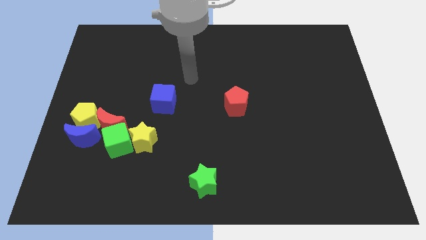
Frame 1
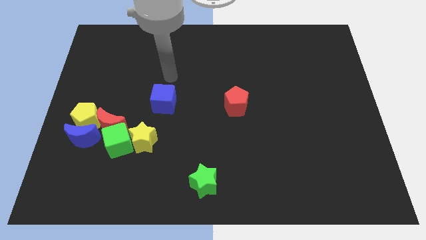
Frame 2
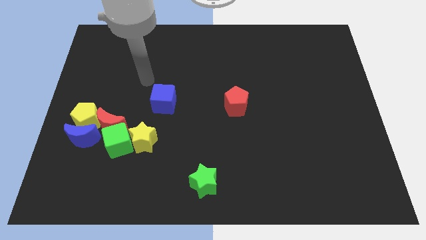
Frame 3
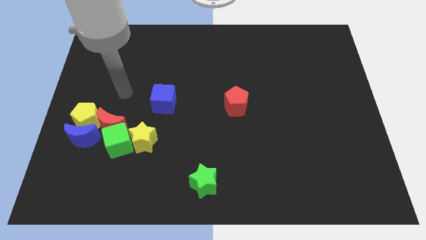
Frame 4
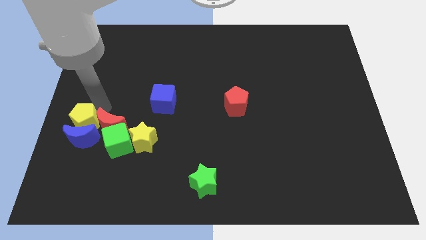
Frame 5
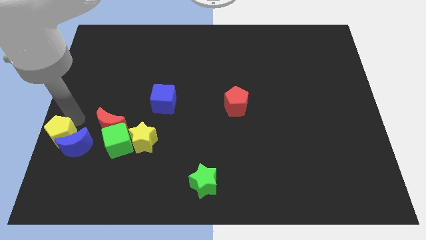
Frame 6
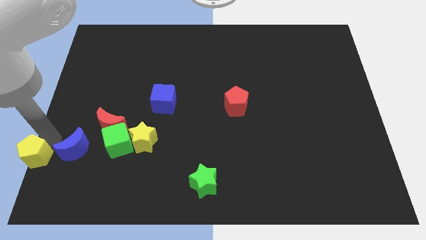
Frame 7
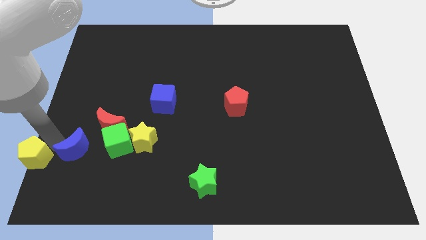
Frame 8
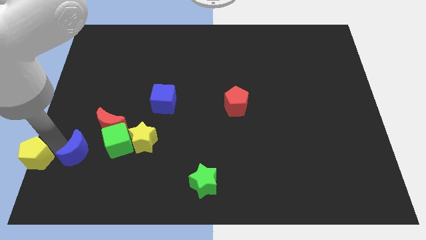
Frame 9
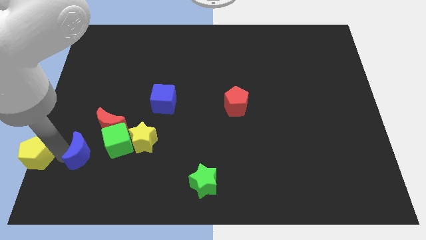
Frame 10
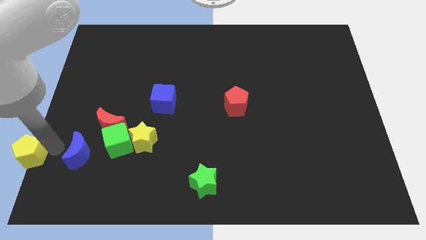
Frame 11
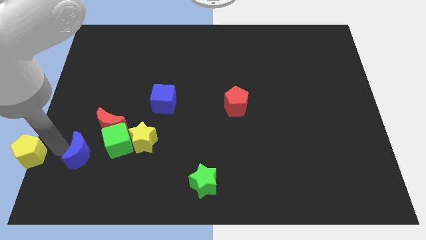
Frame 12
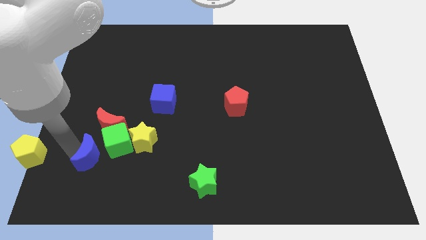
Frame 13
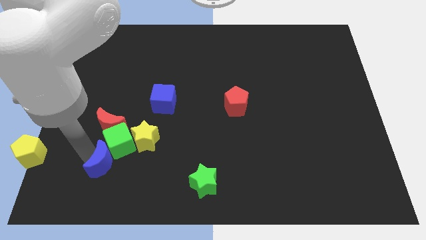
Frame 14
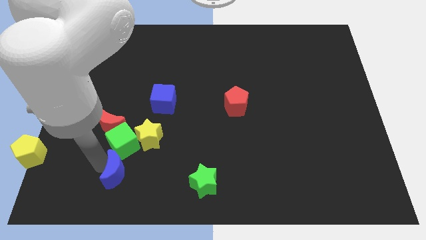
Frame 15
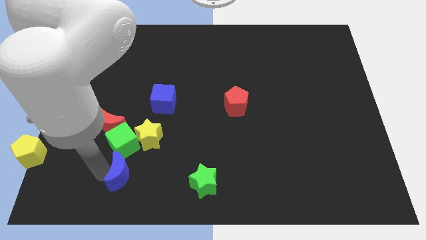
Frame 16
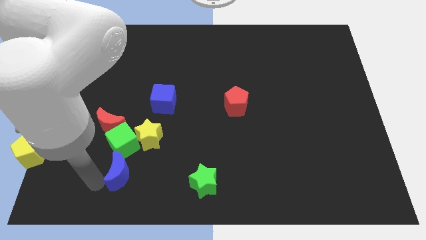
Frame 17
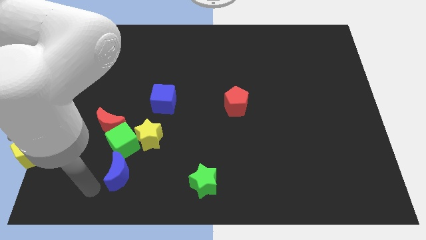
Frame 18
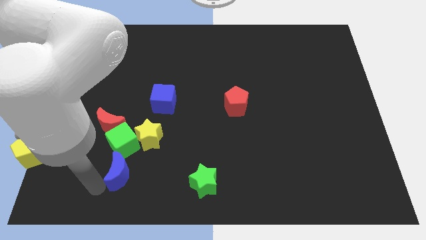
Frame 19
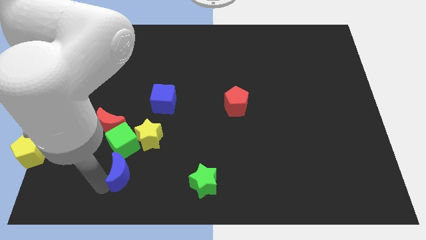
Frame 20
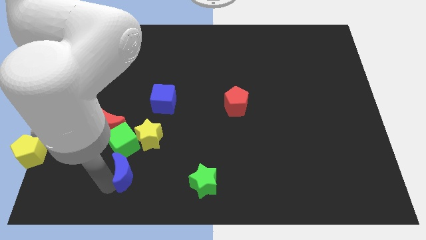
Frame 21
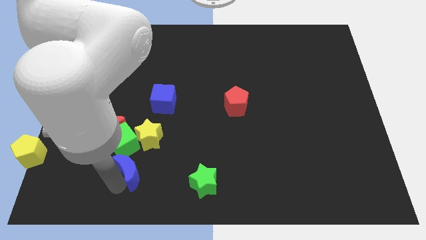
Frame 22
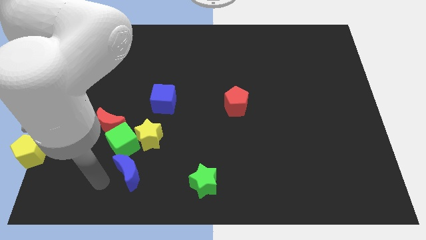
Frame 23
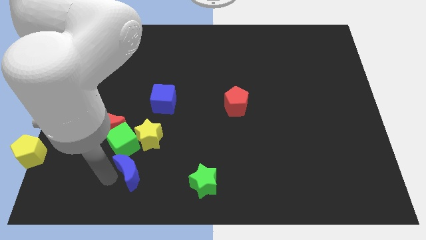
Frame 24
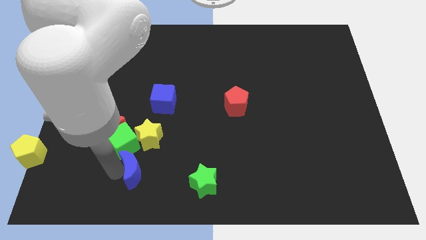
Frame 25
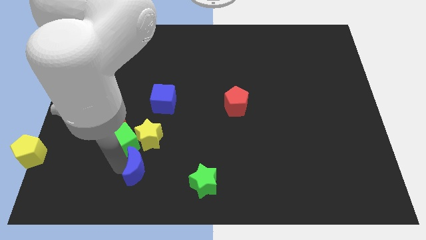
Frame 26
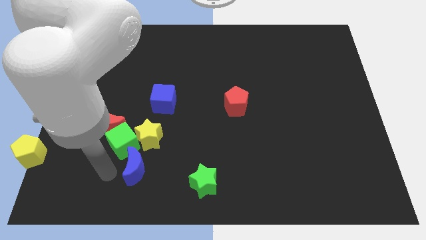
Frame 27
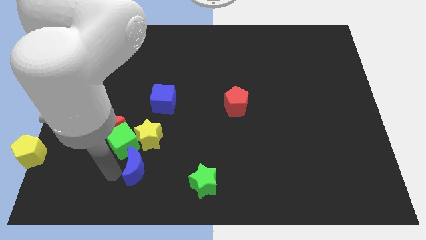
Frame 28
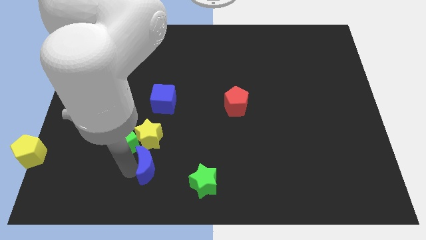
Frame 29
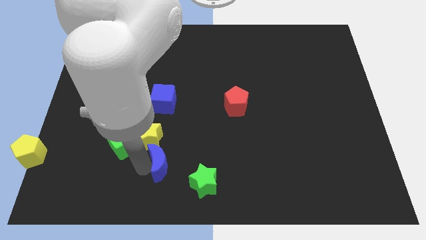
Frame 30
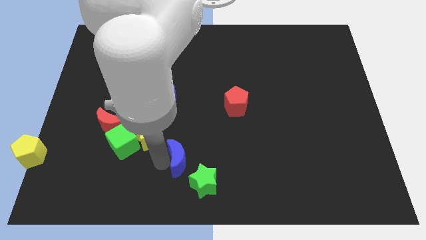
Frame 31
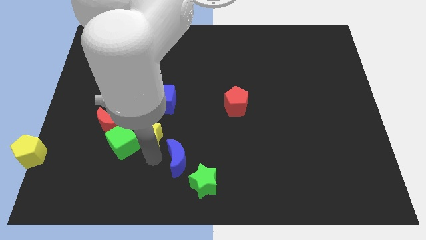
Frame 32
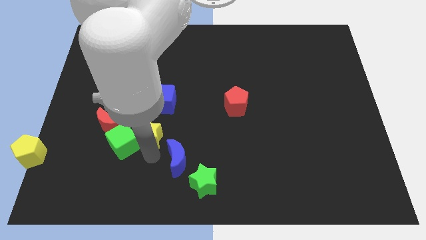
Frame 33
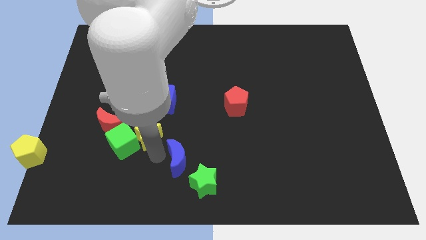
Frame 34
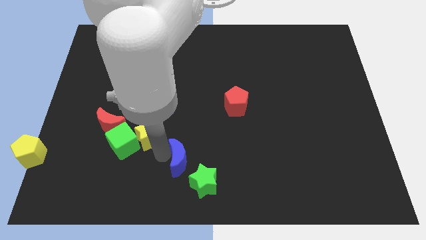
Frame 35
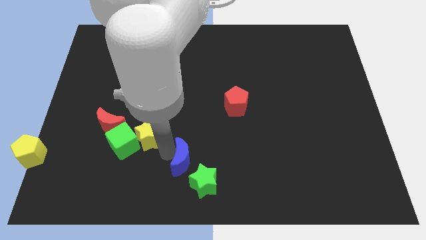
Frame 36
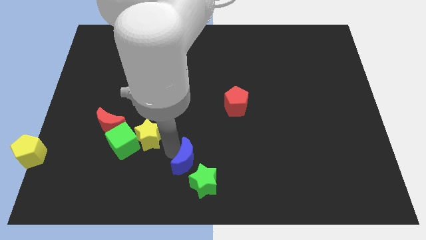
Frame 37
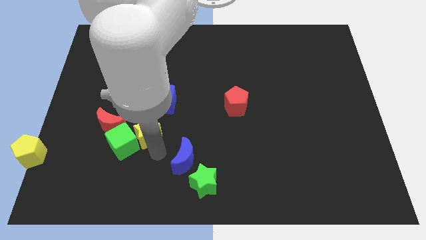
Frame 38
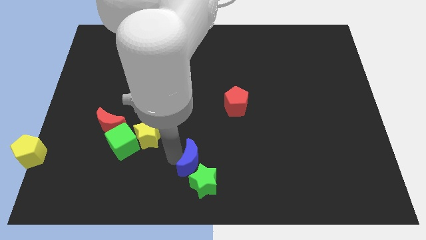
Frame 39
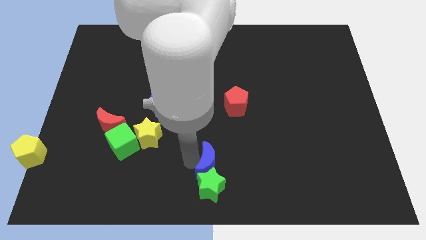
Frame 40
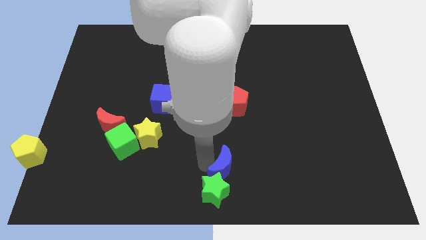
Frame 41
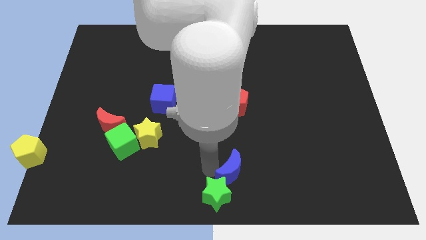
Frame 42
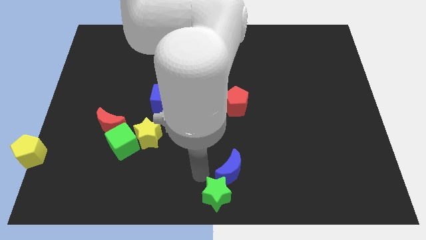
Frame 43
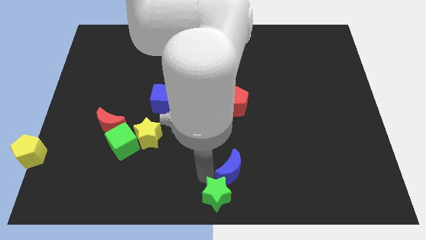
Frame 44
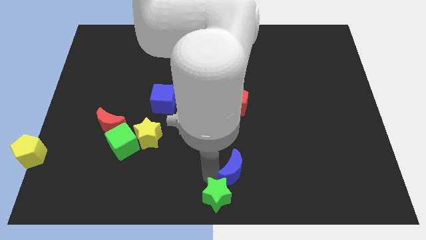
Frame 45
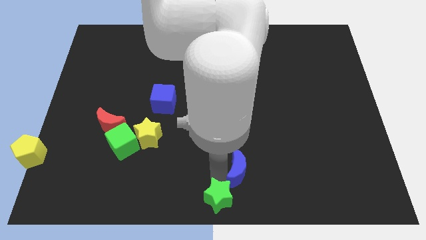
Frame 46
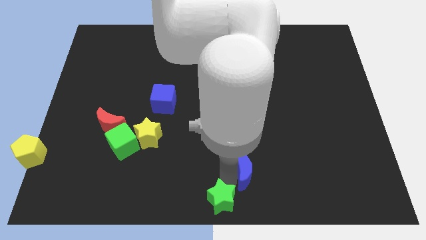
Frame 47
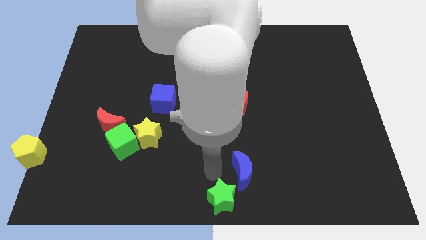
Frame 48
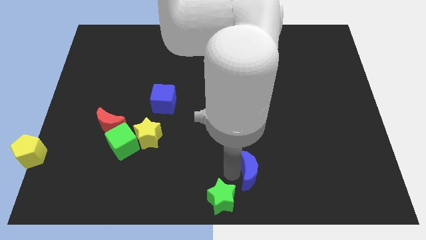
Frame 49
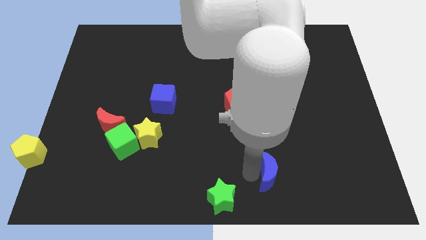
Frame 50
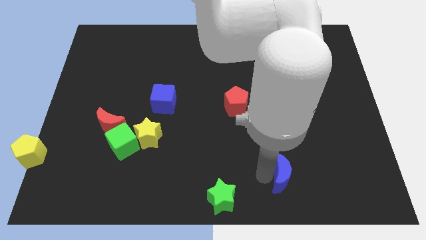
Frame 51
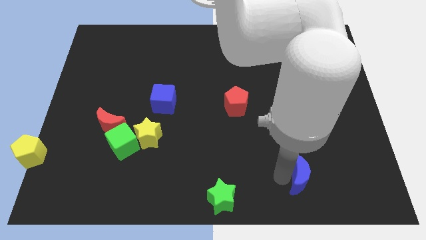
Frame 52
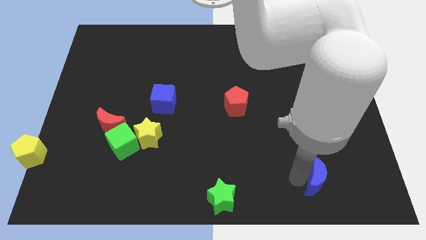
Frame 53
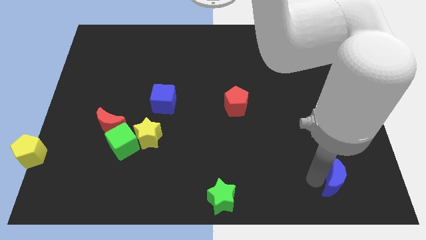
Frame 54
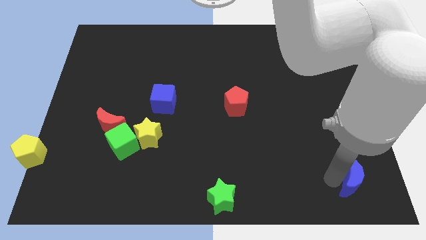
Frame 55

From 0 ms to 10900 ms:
put the blue moon to the bottom right of the board

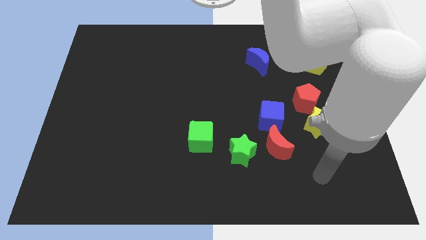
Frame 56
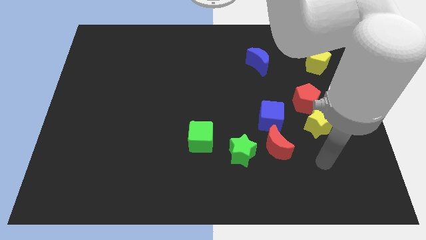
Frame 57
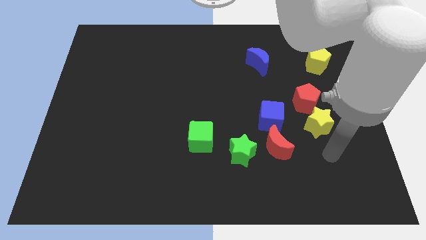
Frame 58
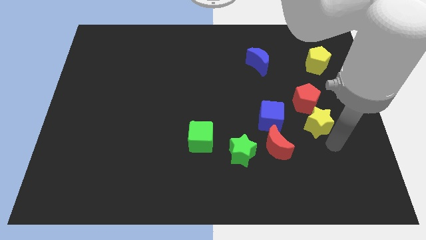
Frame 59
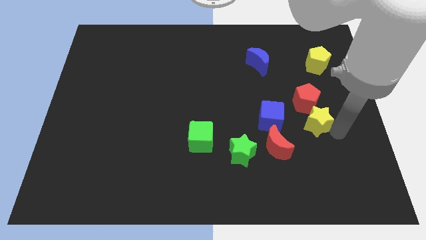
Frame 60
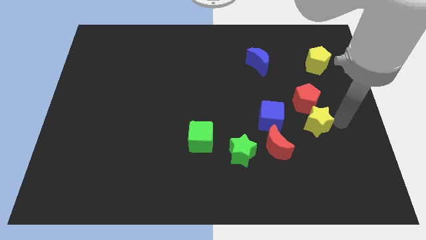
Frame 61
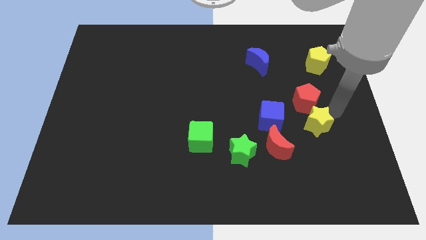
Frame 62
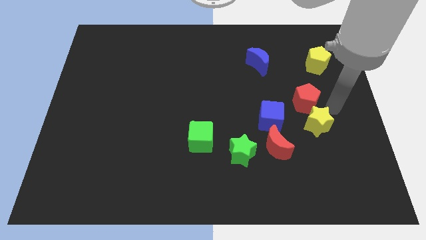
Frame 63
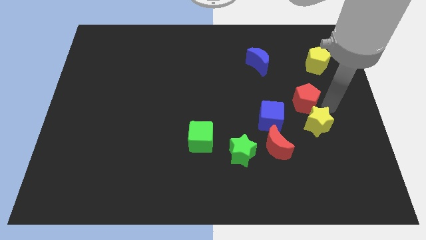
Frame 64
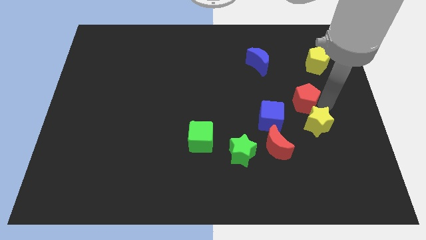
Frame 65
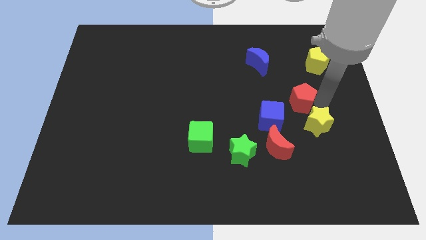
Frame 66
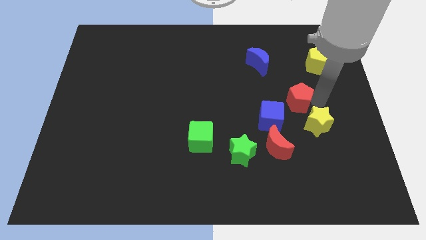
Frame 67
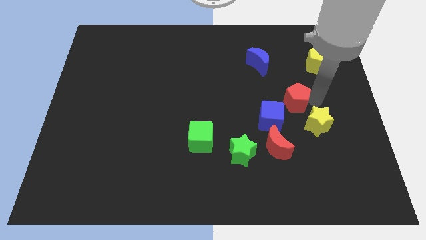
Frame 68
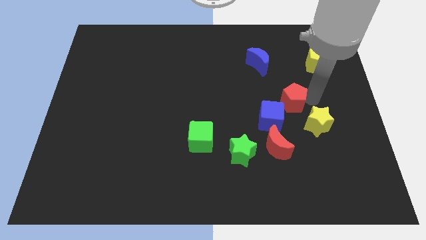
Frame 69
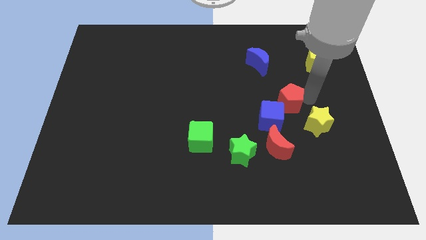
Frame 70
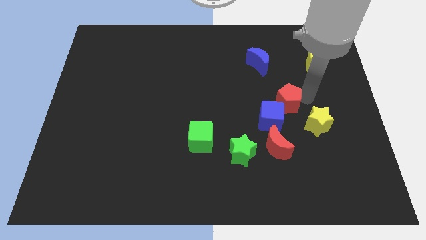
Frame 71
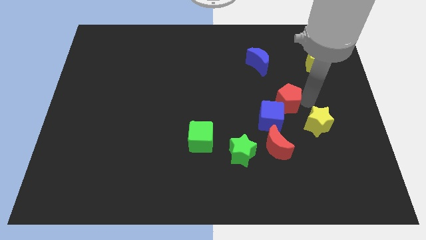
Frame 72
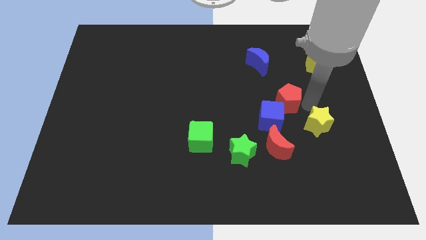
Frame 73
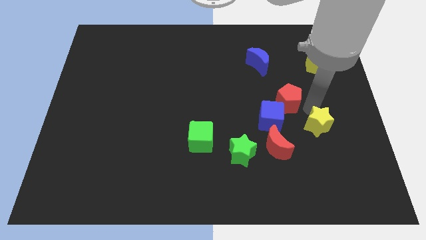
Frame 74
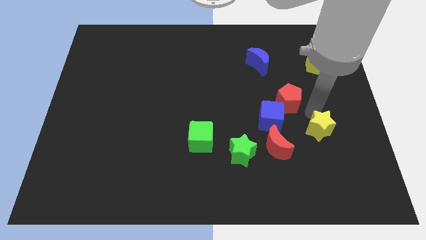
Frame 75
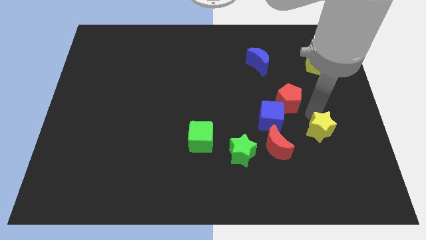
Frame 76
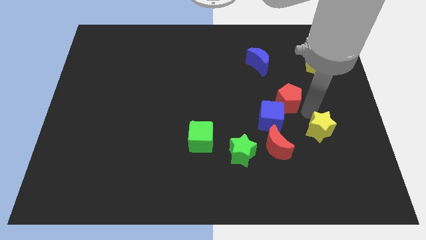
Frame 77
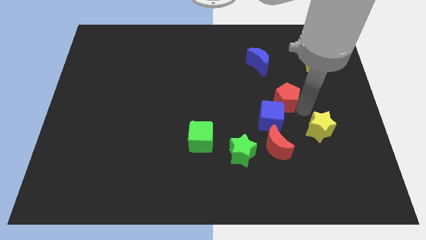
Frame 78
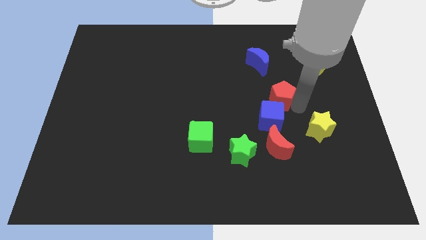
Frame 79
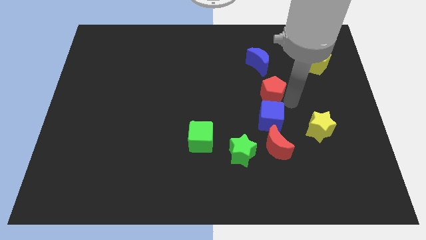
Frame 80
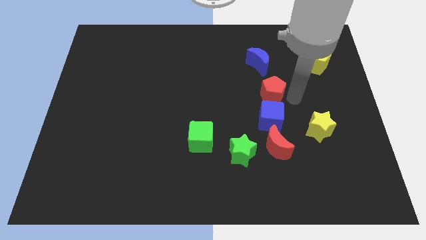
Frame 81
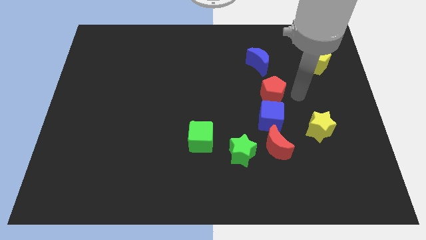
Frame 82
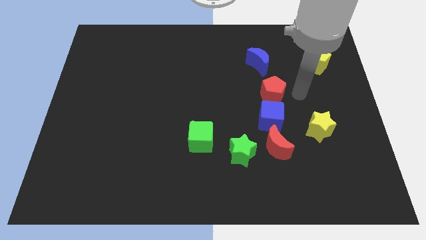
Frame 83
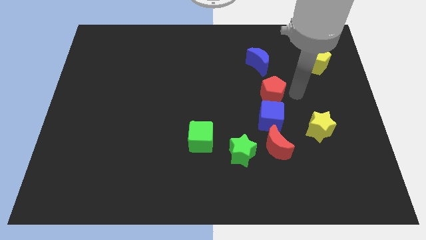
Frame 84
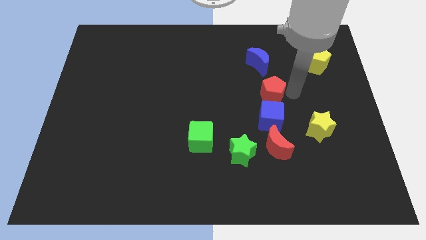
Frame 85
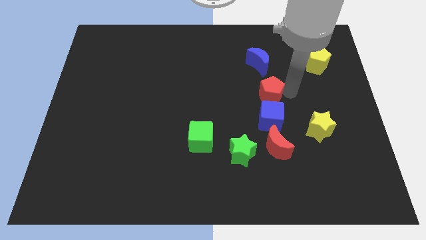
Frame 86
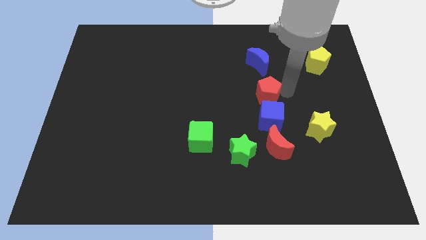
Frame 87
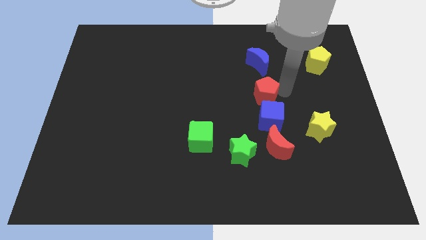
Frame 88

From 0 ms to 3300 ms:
move the red pentagon to the center of the board
